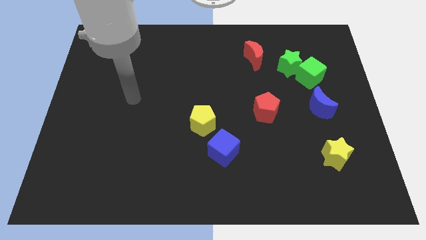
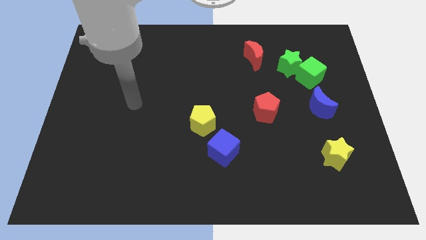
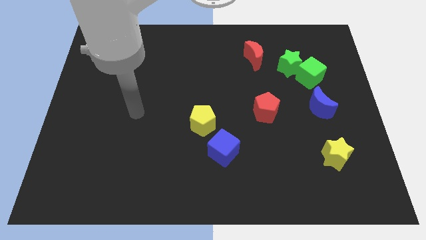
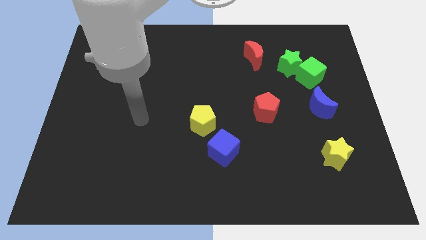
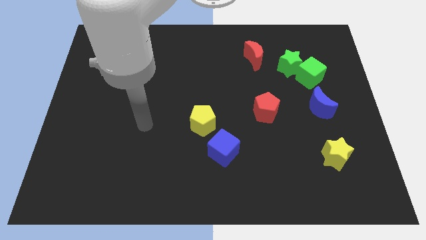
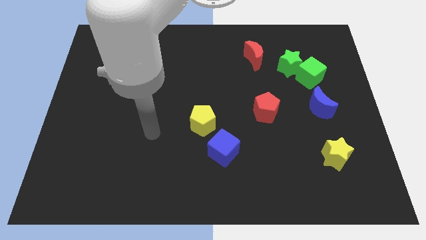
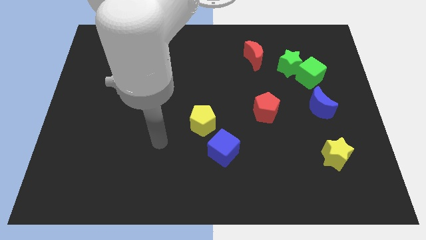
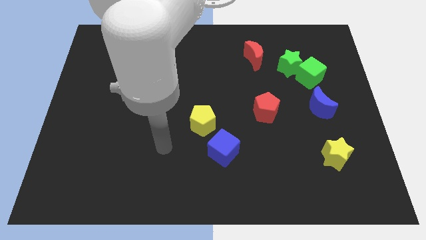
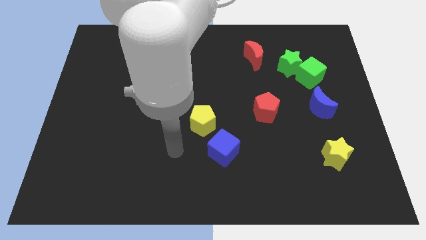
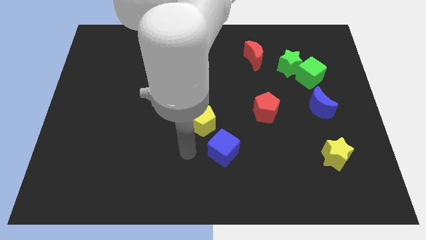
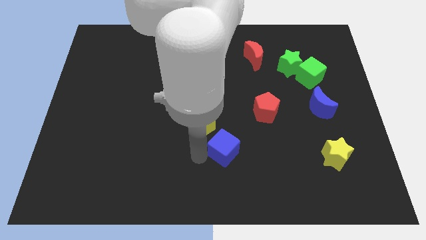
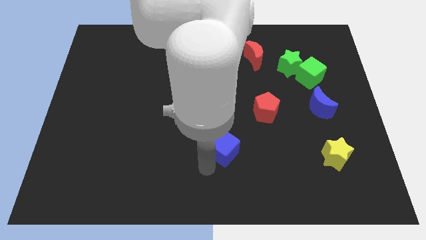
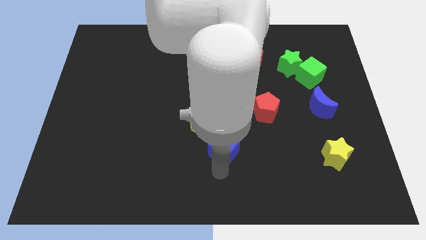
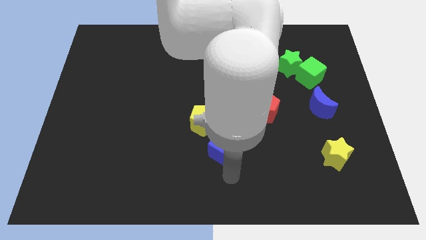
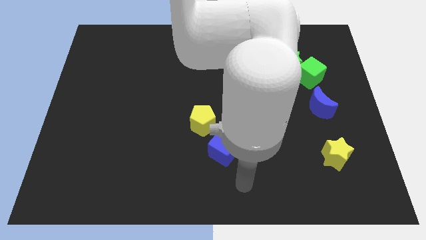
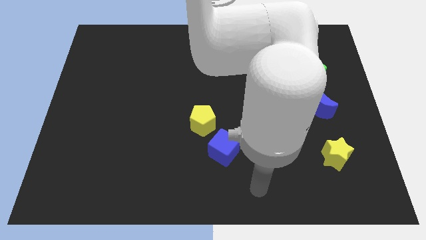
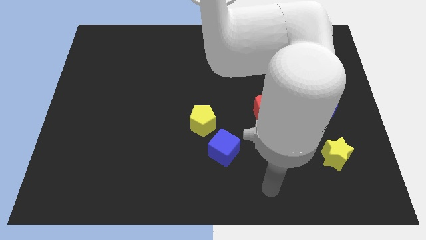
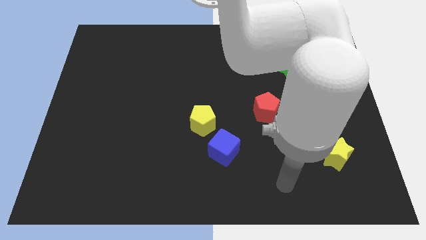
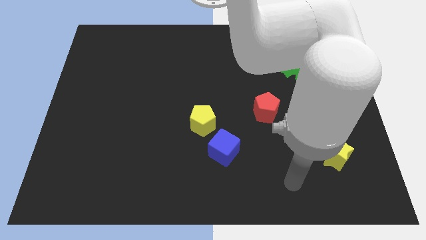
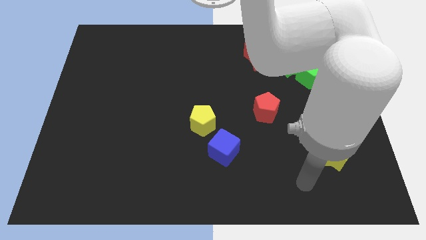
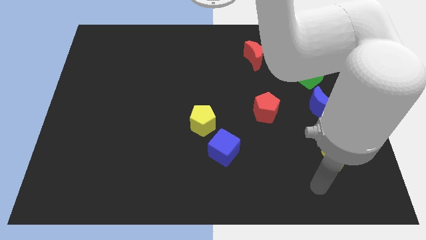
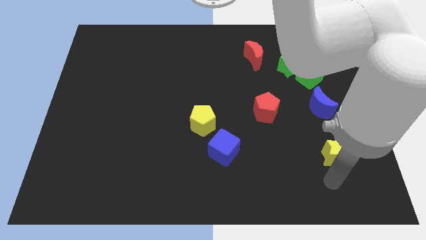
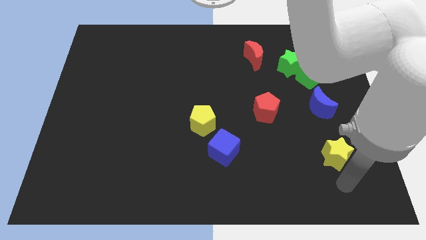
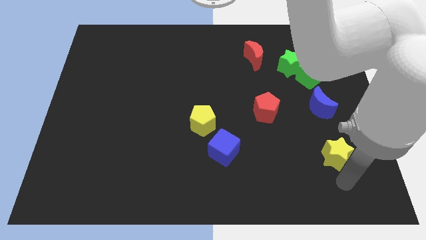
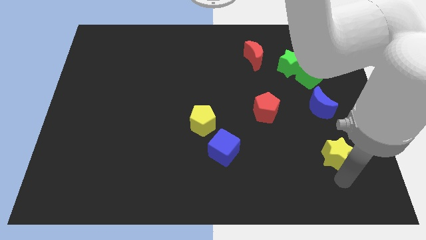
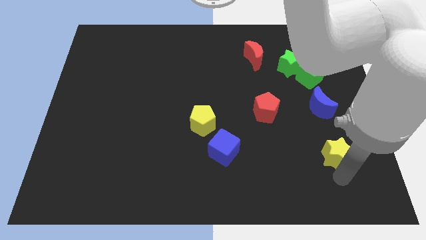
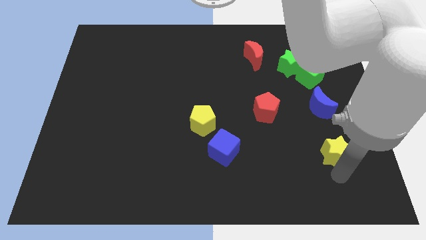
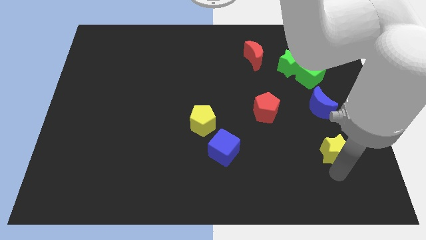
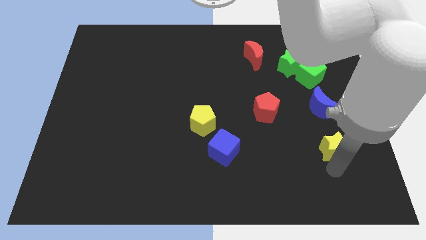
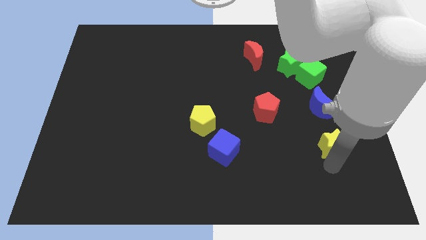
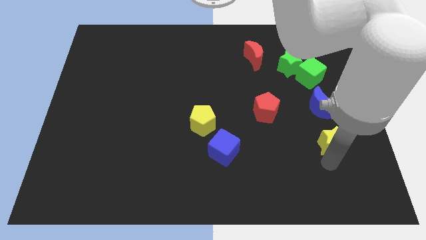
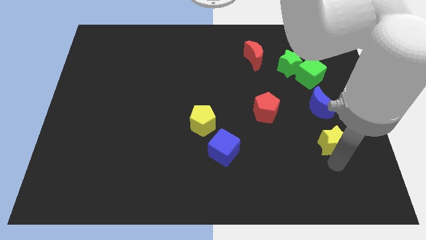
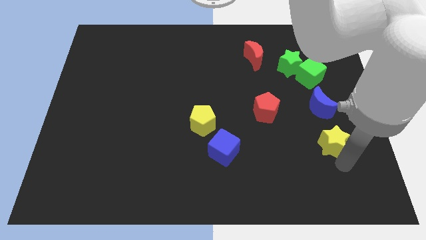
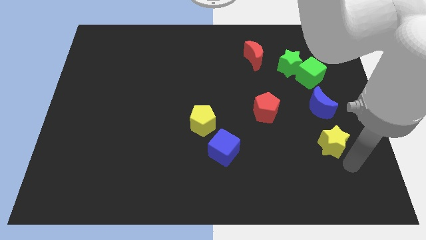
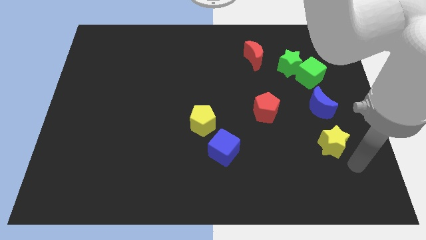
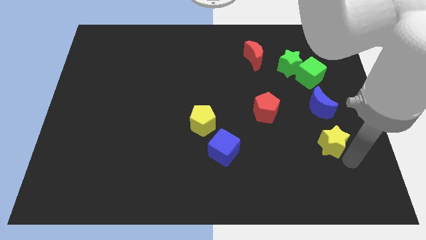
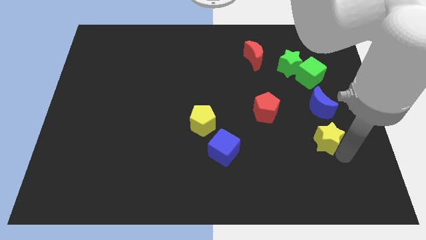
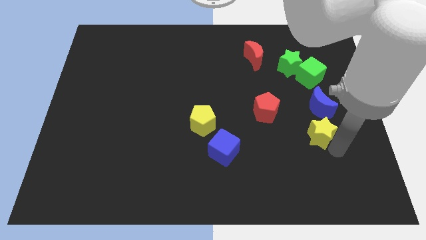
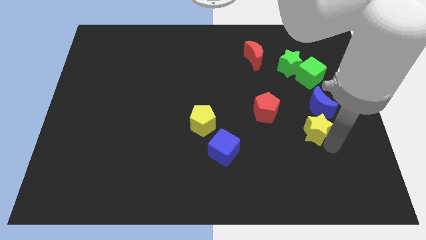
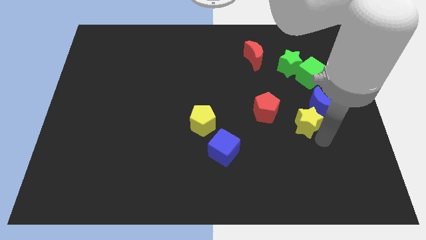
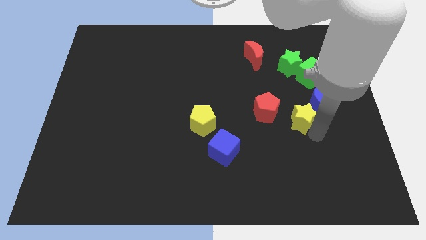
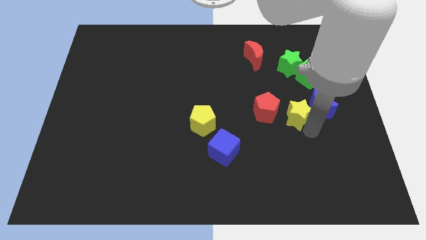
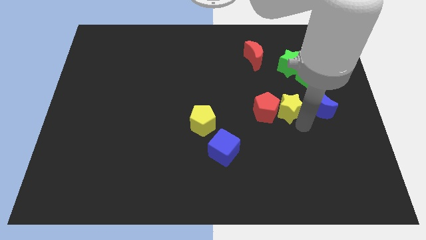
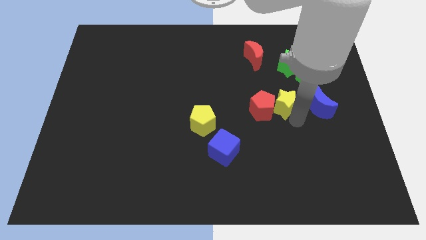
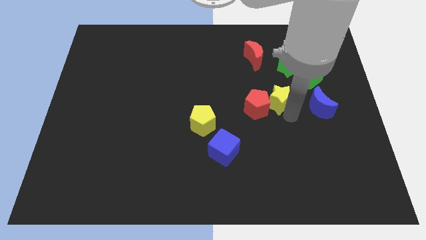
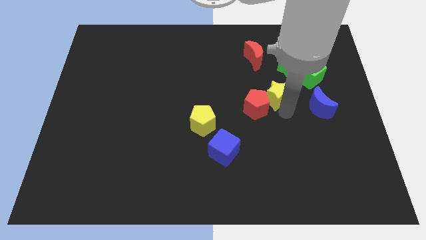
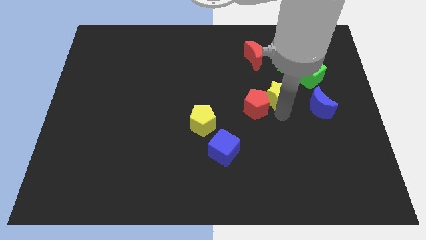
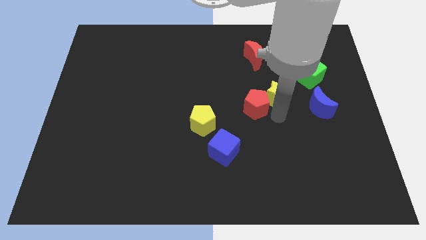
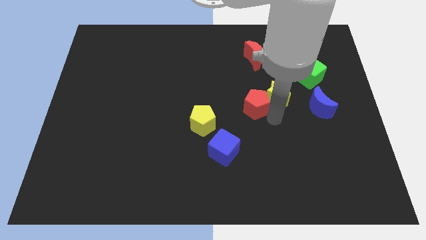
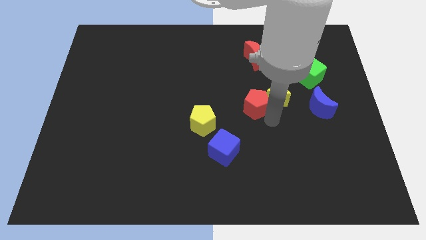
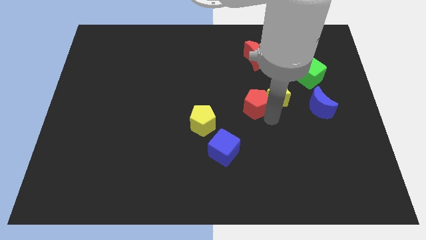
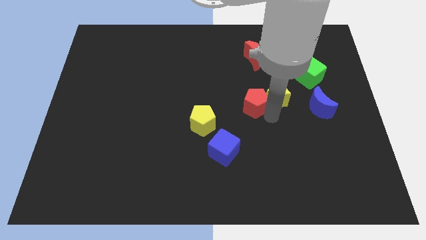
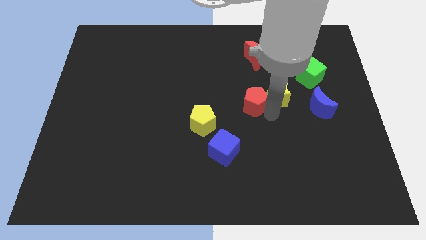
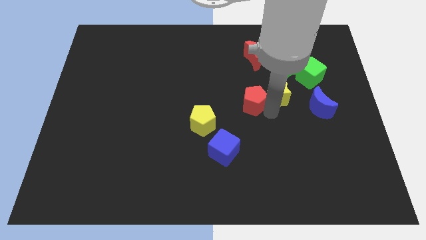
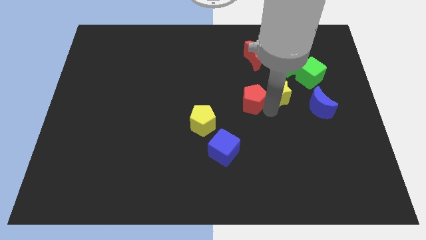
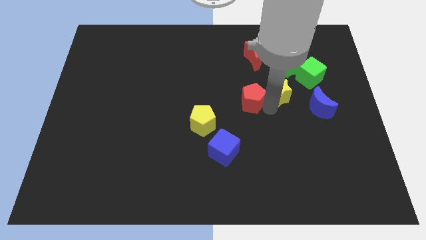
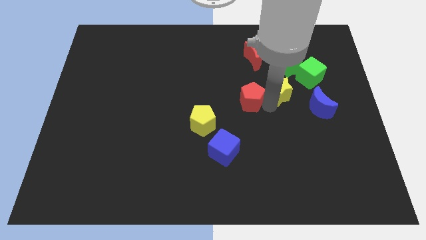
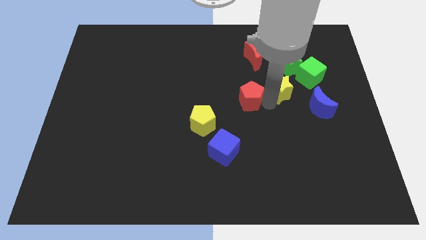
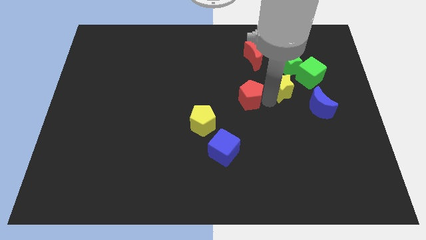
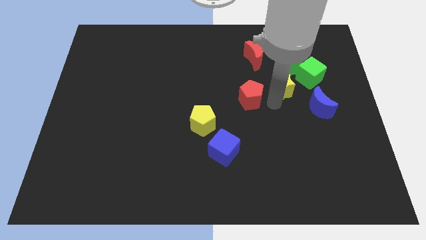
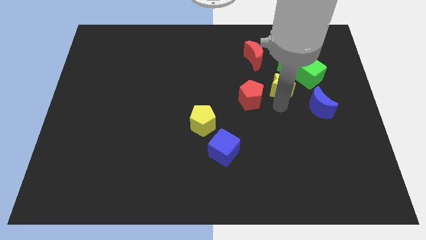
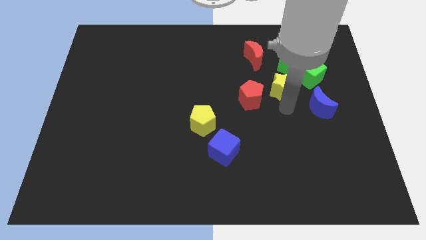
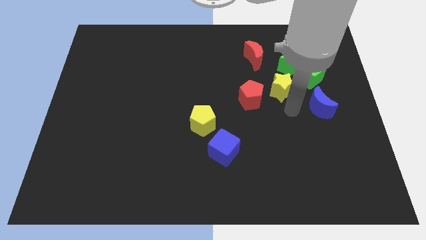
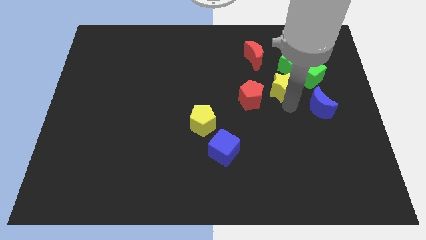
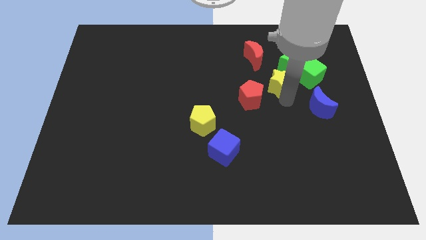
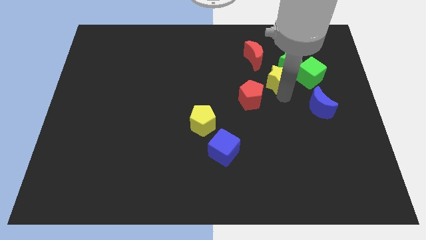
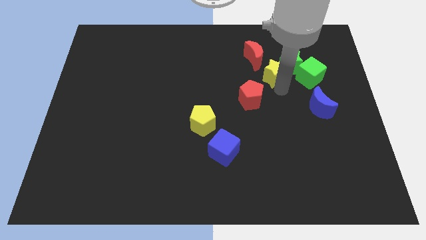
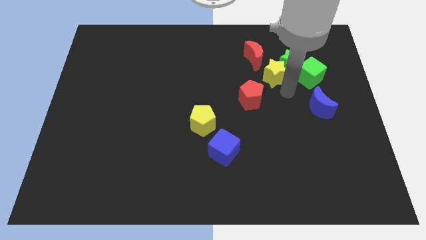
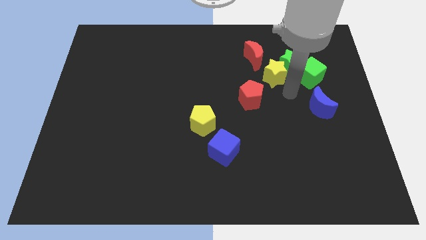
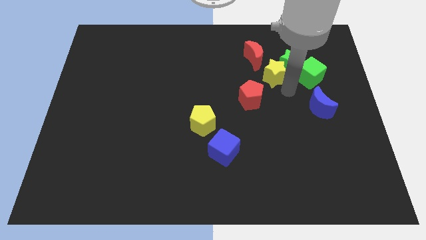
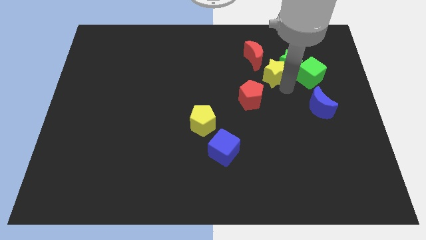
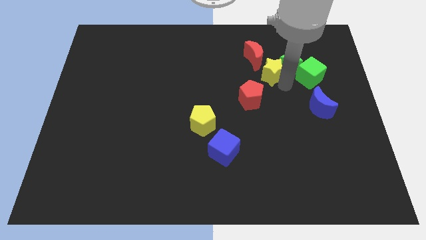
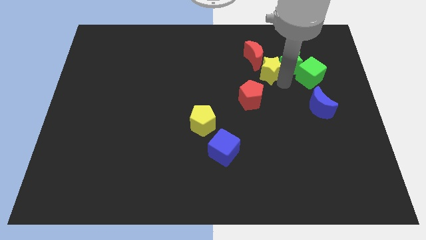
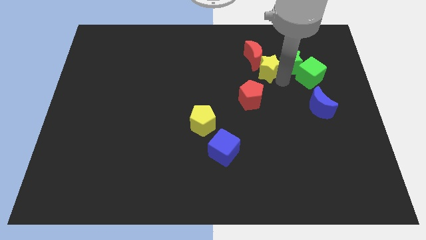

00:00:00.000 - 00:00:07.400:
push the yellow star next to the red moon
